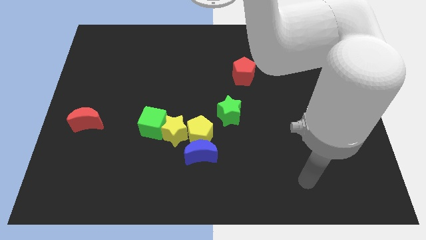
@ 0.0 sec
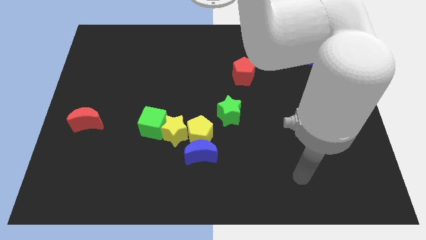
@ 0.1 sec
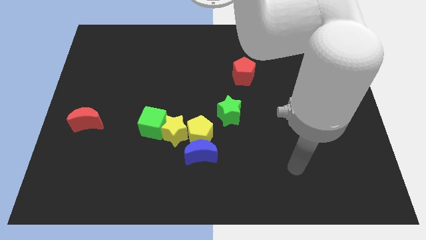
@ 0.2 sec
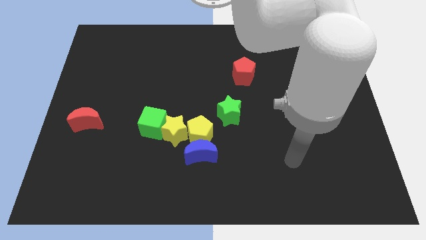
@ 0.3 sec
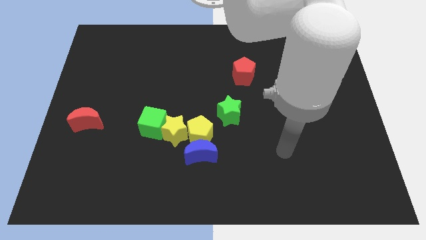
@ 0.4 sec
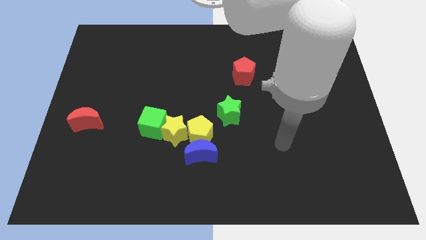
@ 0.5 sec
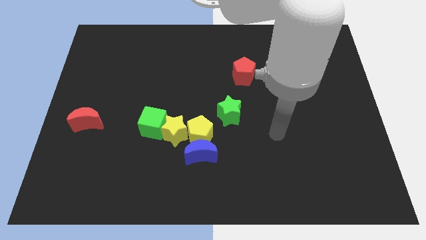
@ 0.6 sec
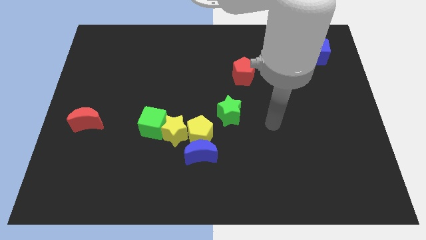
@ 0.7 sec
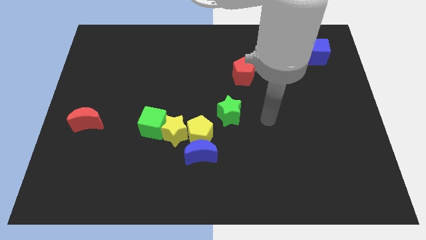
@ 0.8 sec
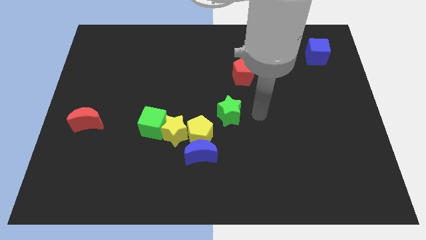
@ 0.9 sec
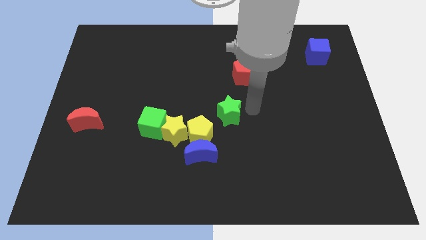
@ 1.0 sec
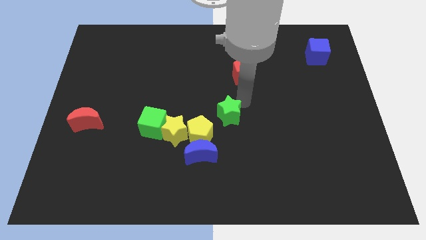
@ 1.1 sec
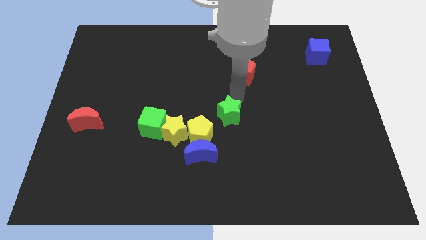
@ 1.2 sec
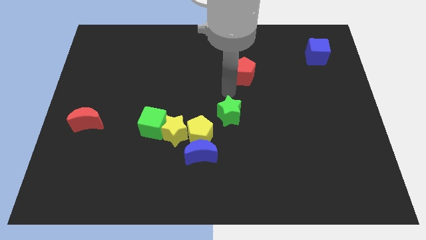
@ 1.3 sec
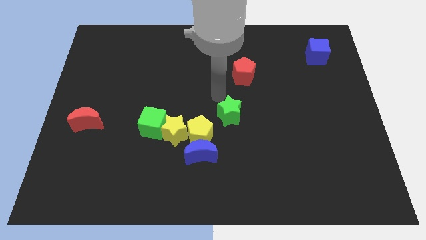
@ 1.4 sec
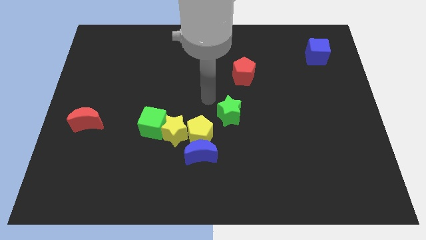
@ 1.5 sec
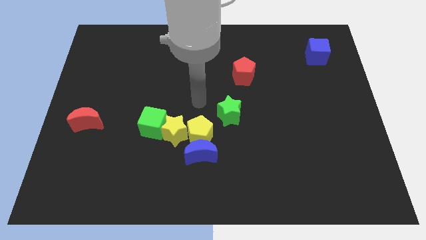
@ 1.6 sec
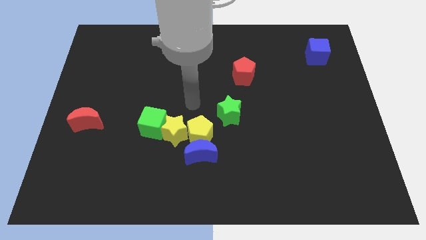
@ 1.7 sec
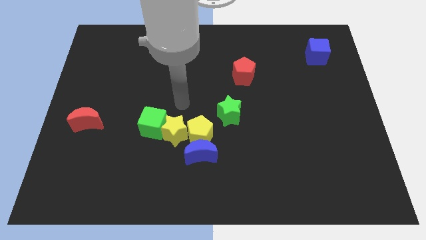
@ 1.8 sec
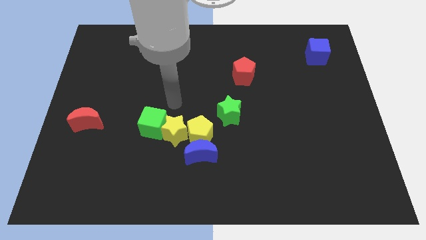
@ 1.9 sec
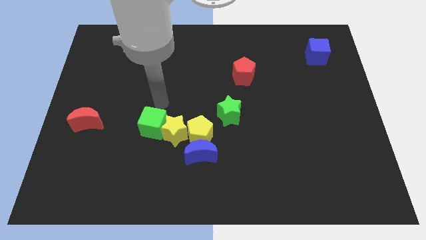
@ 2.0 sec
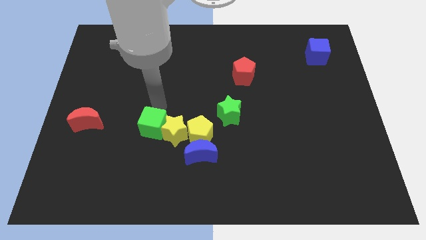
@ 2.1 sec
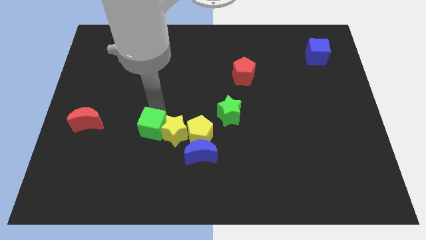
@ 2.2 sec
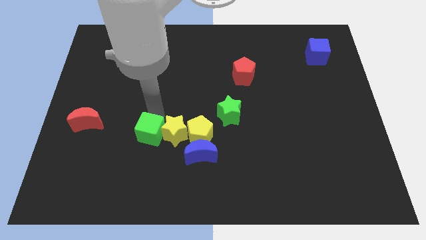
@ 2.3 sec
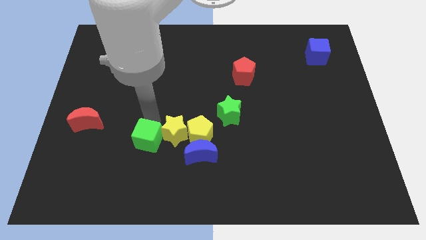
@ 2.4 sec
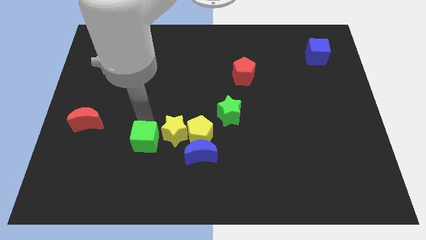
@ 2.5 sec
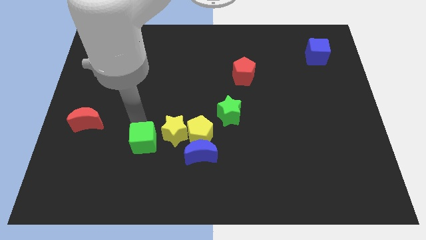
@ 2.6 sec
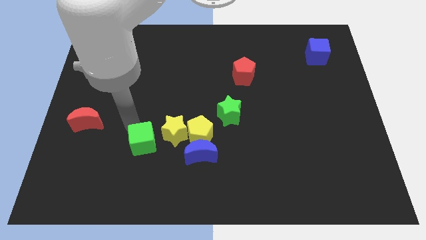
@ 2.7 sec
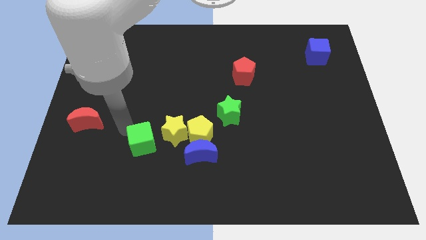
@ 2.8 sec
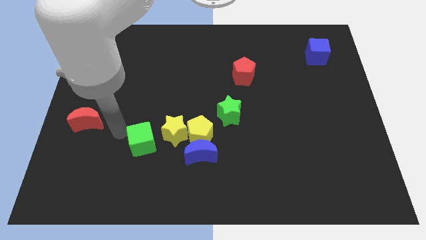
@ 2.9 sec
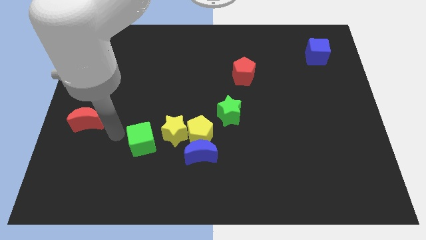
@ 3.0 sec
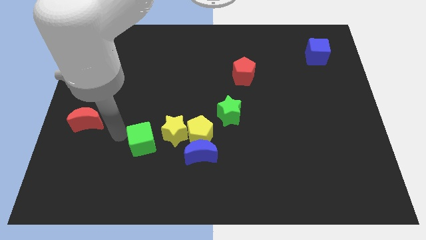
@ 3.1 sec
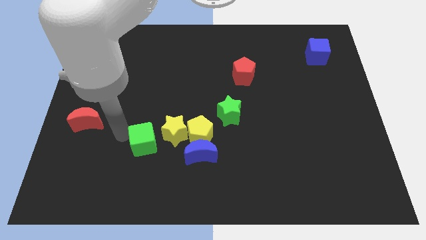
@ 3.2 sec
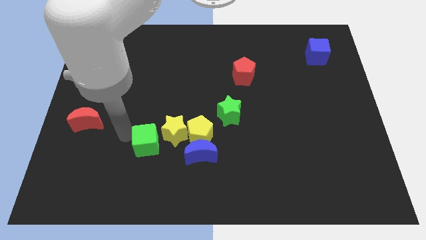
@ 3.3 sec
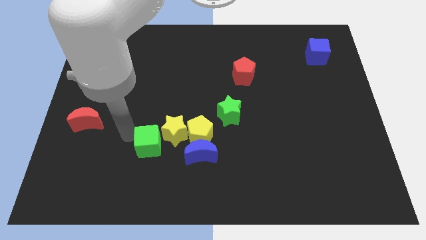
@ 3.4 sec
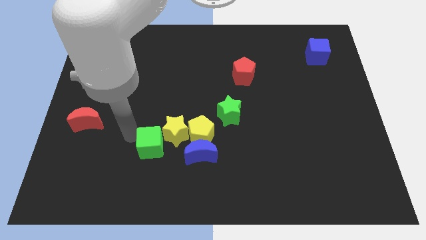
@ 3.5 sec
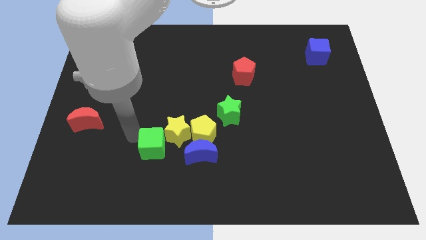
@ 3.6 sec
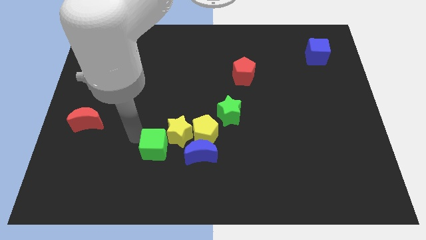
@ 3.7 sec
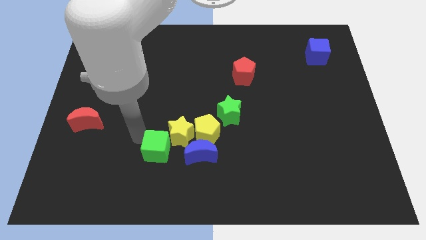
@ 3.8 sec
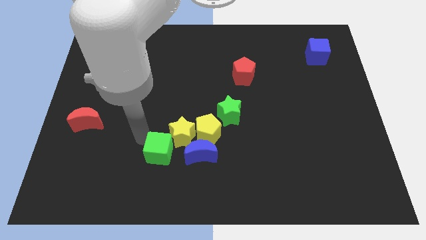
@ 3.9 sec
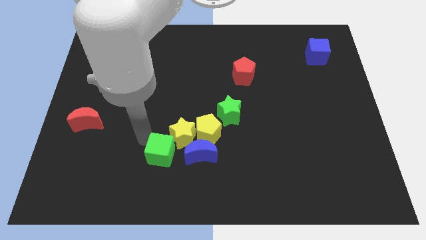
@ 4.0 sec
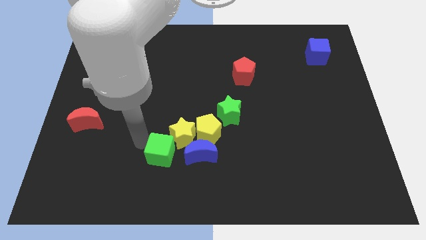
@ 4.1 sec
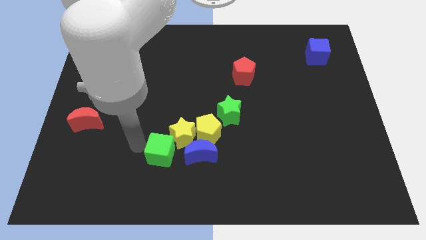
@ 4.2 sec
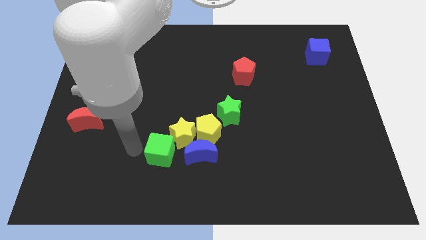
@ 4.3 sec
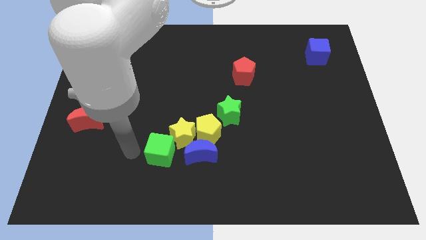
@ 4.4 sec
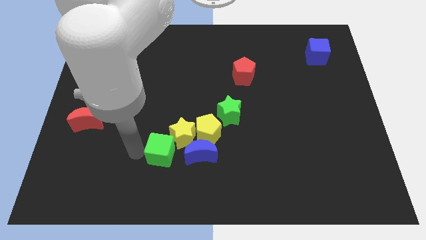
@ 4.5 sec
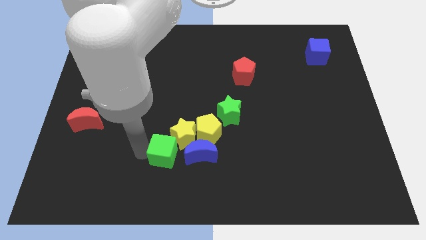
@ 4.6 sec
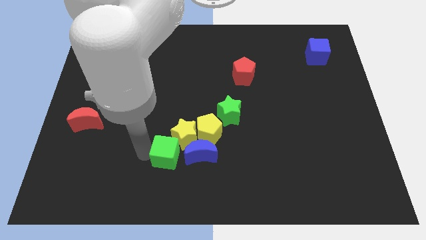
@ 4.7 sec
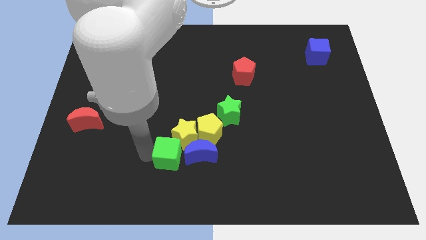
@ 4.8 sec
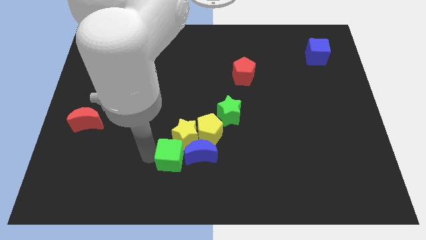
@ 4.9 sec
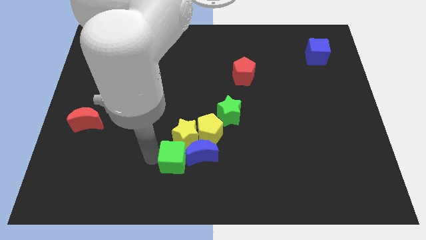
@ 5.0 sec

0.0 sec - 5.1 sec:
move the green cube towards the blue moon

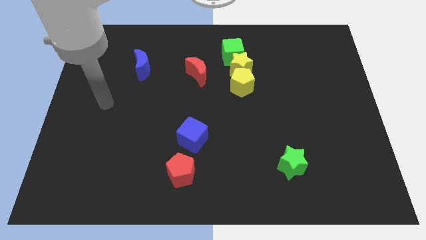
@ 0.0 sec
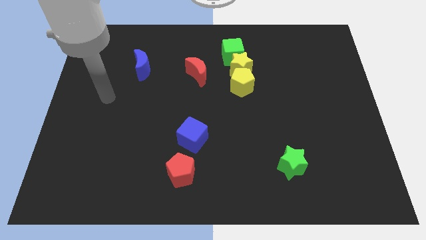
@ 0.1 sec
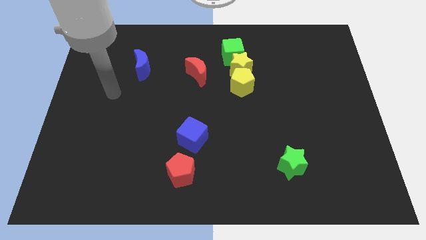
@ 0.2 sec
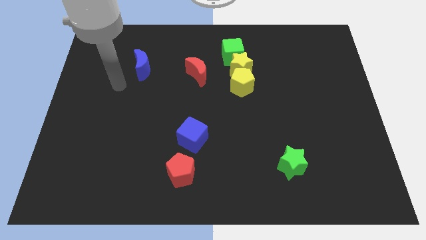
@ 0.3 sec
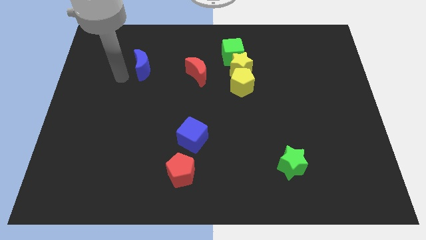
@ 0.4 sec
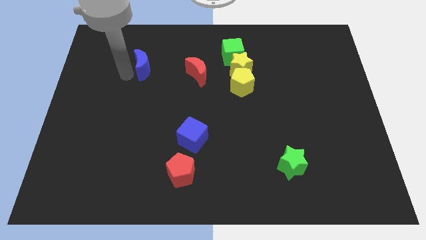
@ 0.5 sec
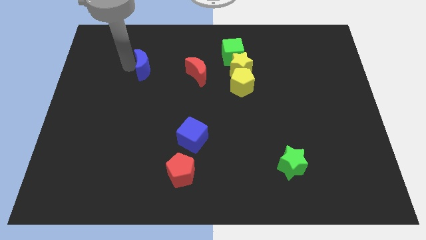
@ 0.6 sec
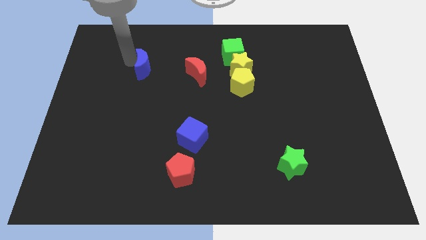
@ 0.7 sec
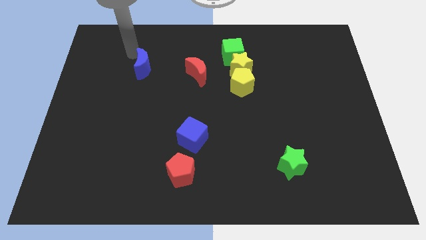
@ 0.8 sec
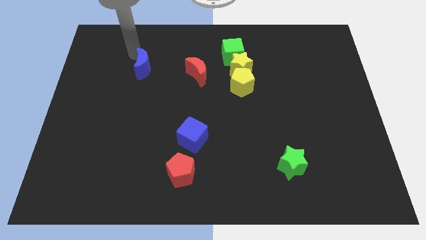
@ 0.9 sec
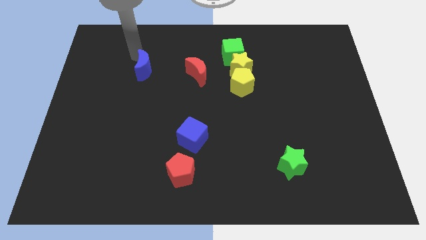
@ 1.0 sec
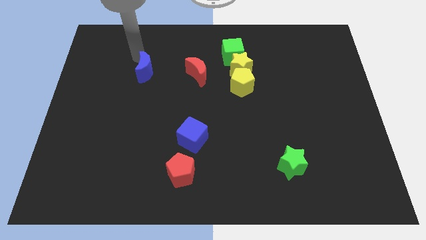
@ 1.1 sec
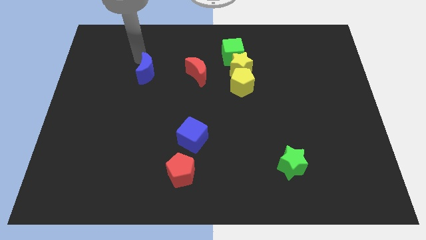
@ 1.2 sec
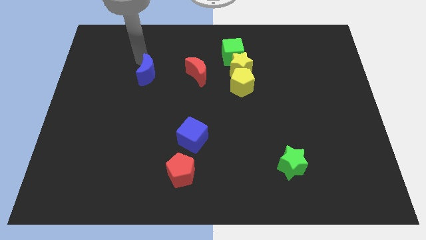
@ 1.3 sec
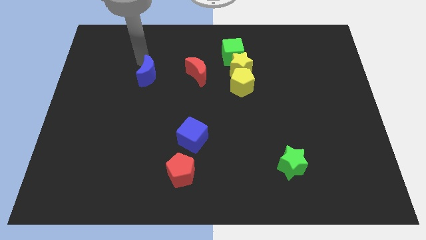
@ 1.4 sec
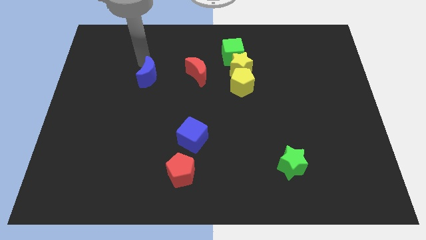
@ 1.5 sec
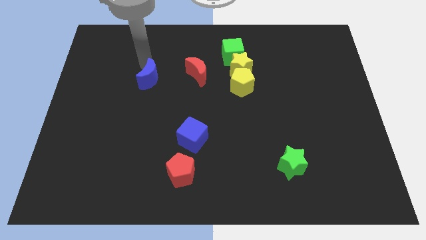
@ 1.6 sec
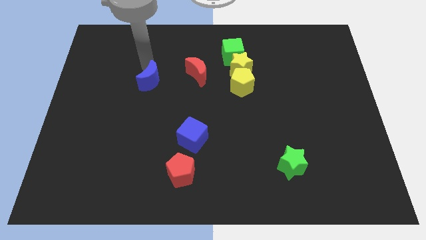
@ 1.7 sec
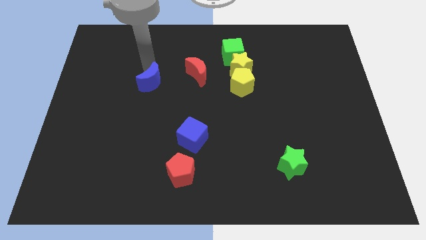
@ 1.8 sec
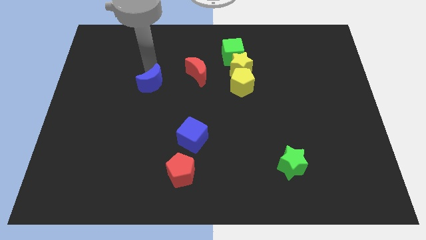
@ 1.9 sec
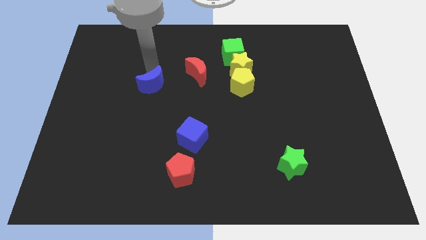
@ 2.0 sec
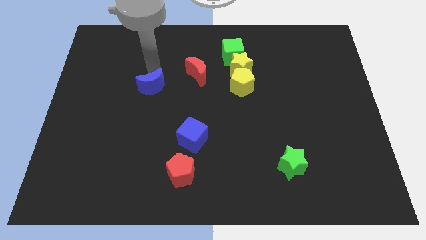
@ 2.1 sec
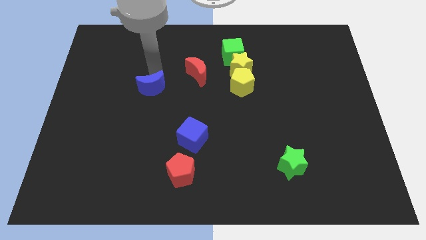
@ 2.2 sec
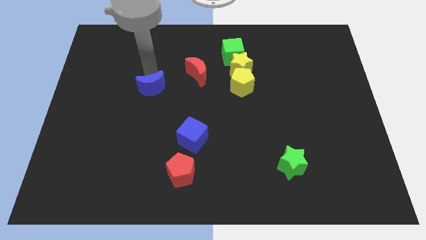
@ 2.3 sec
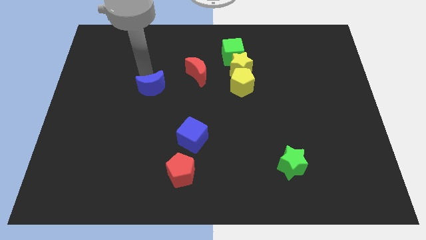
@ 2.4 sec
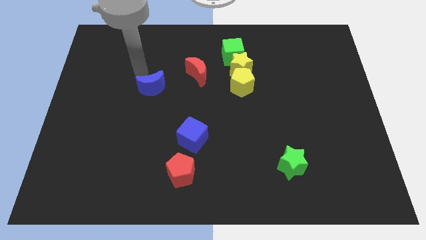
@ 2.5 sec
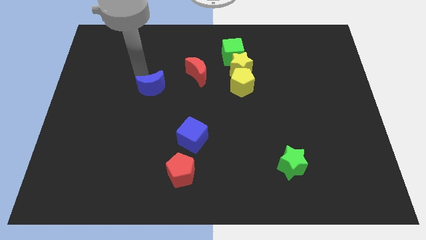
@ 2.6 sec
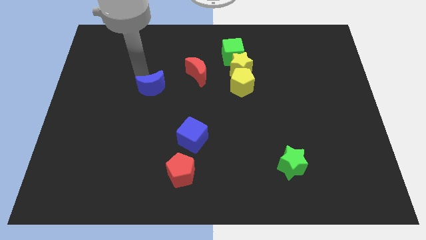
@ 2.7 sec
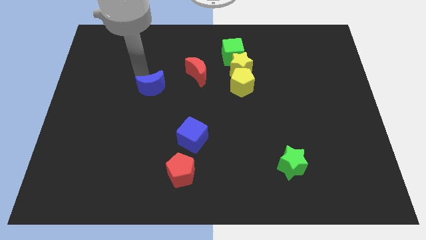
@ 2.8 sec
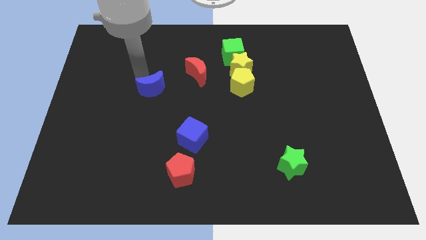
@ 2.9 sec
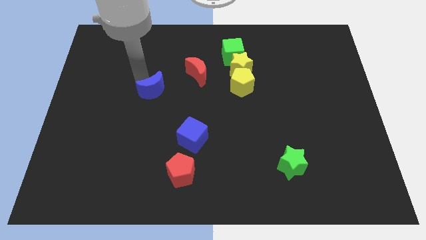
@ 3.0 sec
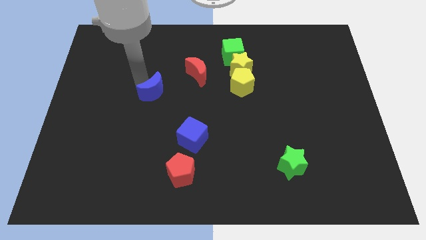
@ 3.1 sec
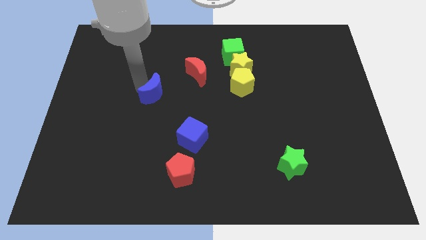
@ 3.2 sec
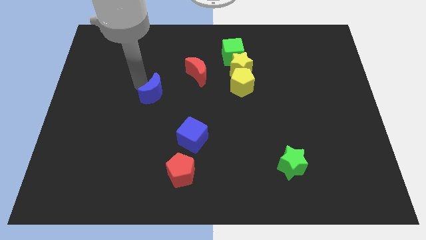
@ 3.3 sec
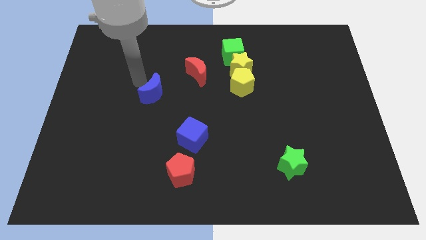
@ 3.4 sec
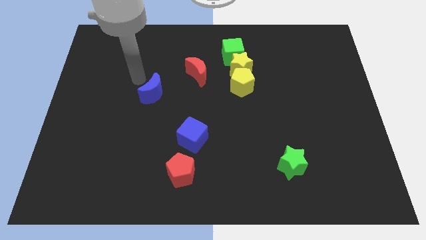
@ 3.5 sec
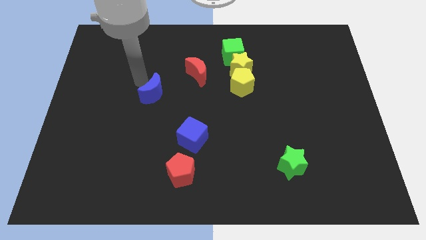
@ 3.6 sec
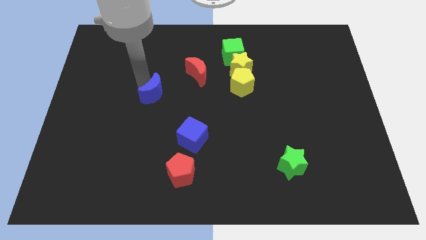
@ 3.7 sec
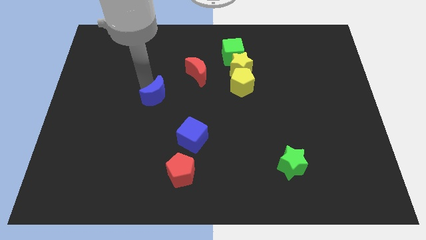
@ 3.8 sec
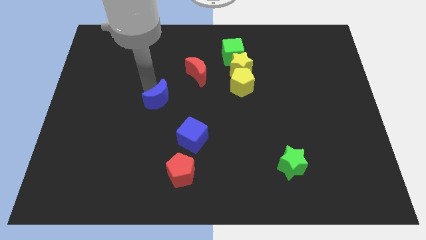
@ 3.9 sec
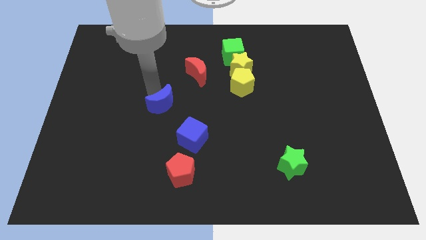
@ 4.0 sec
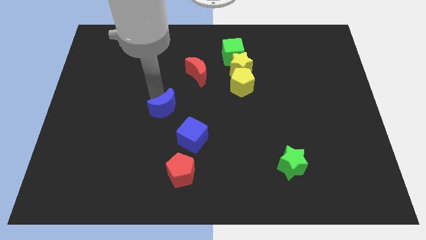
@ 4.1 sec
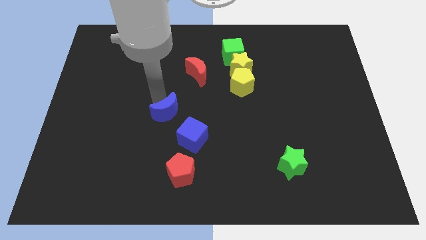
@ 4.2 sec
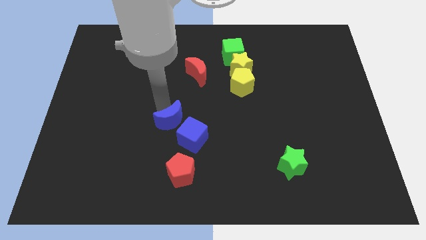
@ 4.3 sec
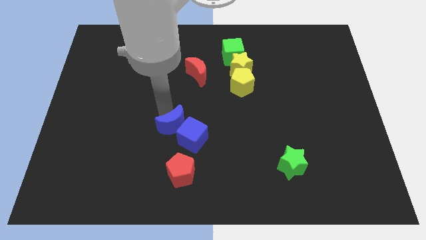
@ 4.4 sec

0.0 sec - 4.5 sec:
put the blue moon to the blue cube
